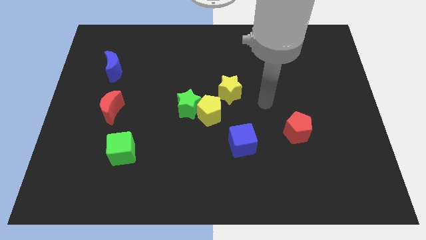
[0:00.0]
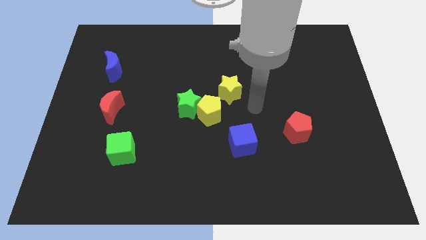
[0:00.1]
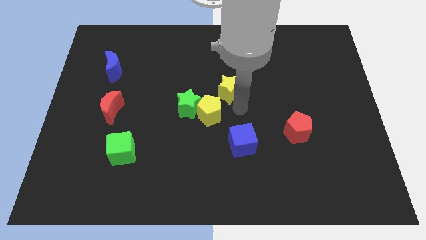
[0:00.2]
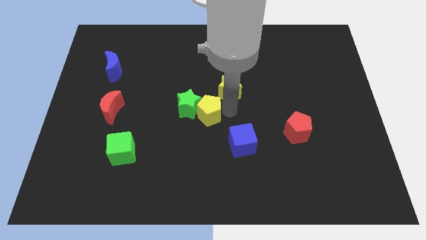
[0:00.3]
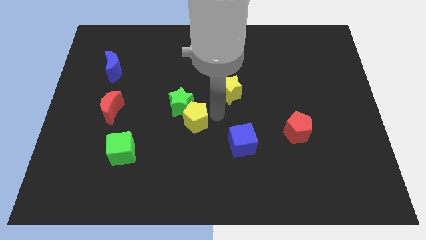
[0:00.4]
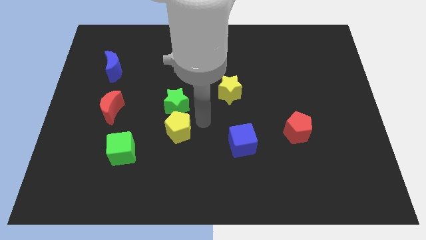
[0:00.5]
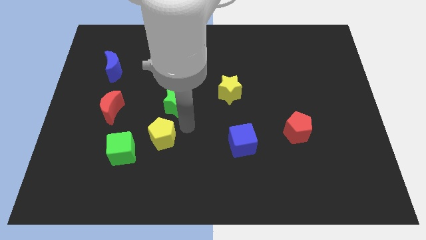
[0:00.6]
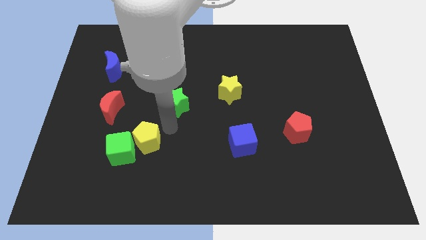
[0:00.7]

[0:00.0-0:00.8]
move the green star away from the yellow pentagon

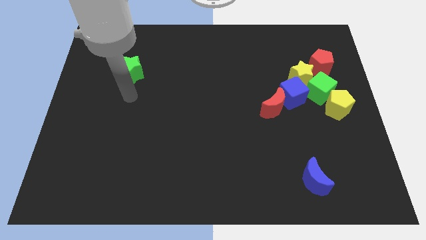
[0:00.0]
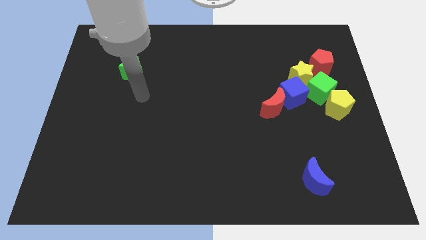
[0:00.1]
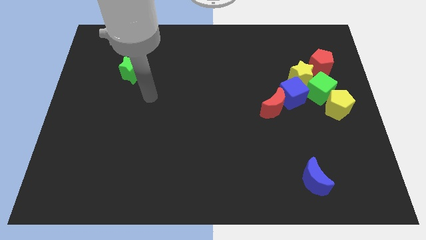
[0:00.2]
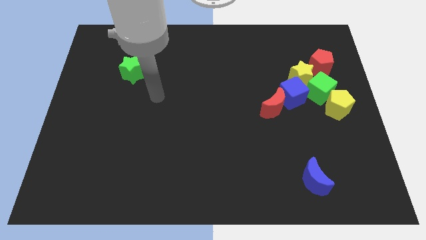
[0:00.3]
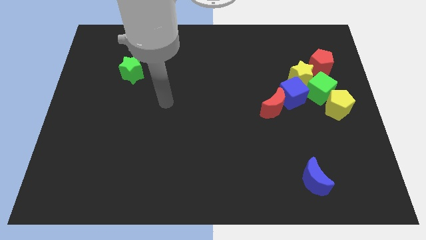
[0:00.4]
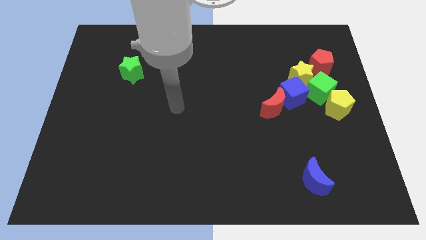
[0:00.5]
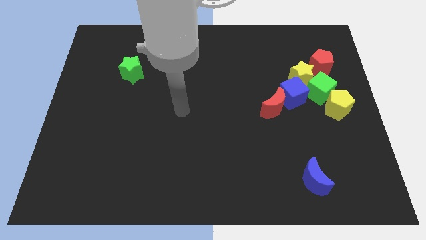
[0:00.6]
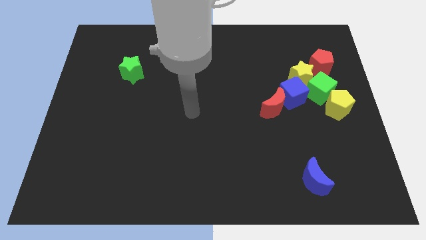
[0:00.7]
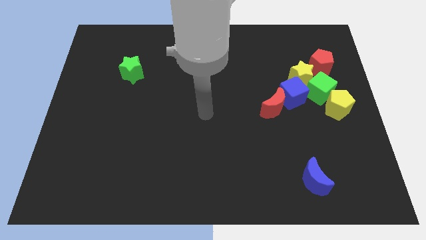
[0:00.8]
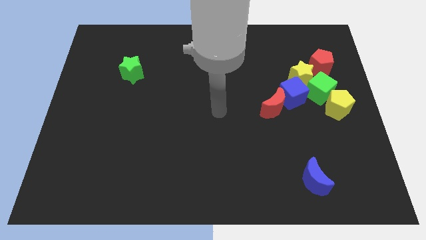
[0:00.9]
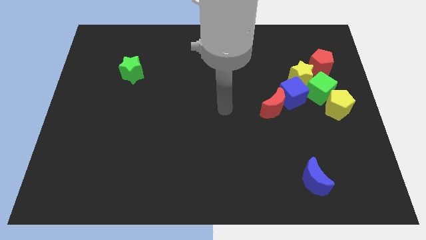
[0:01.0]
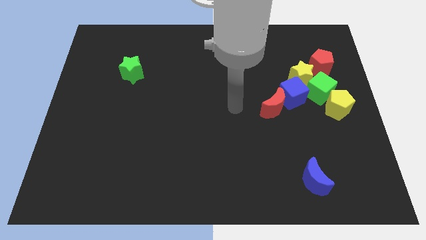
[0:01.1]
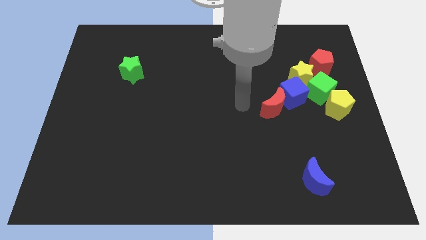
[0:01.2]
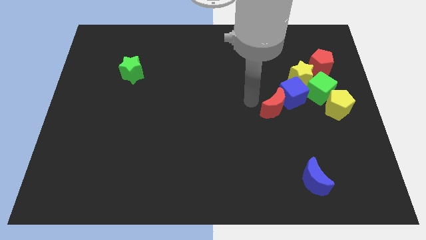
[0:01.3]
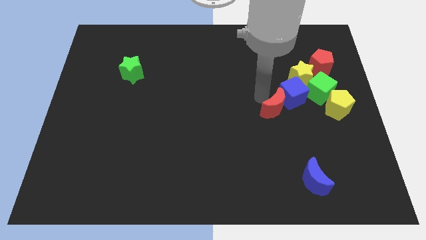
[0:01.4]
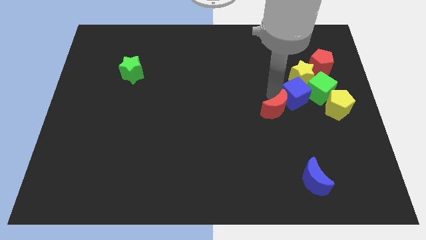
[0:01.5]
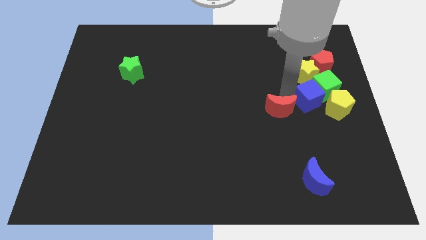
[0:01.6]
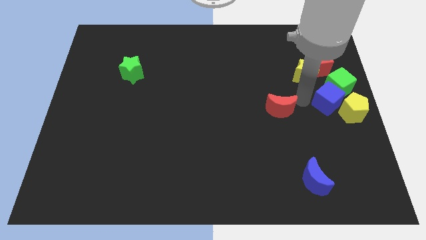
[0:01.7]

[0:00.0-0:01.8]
move the red moon away from the blue cube

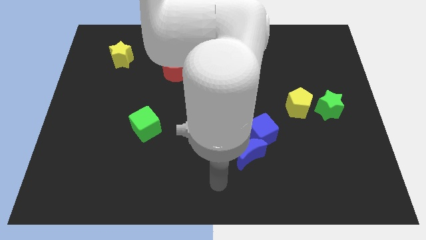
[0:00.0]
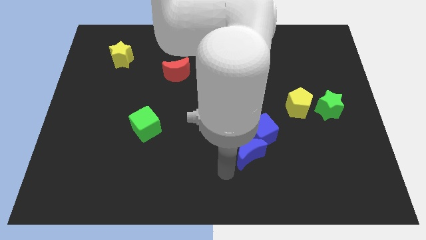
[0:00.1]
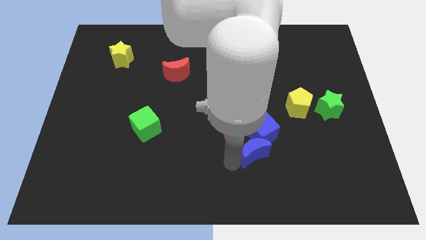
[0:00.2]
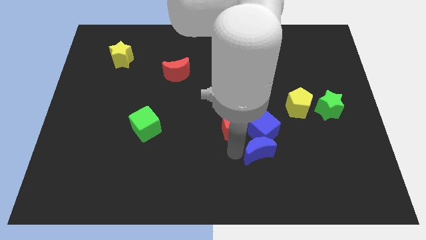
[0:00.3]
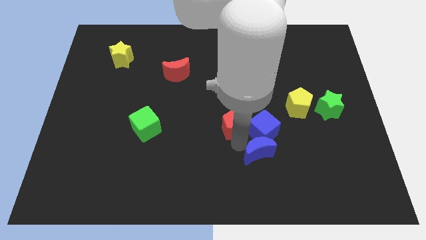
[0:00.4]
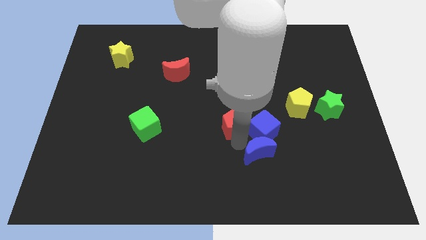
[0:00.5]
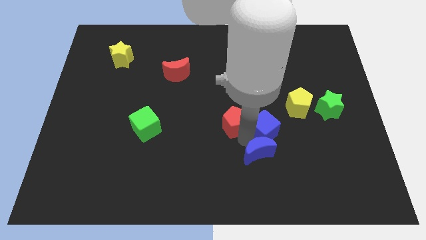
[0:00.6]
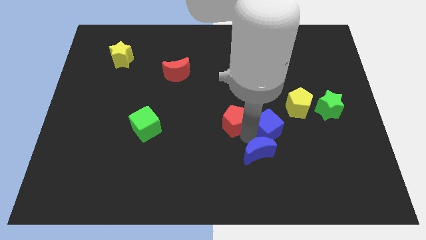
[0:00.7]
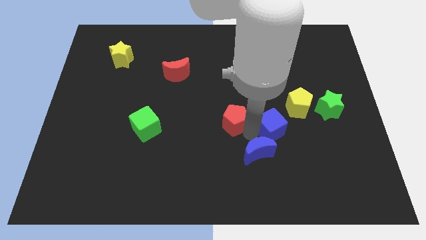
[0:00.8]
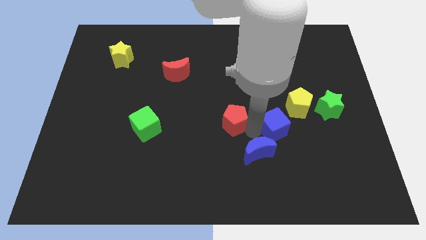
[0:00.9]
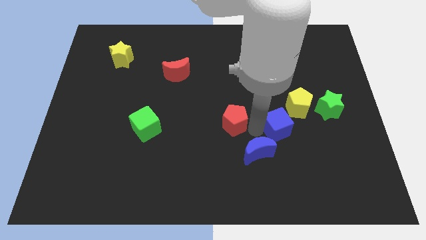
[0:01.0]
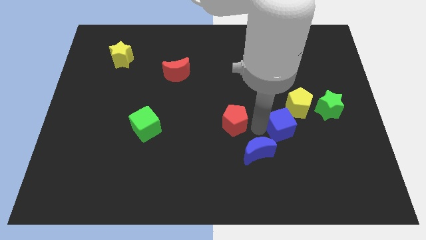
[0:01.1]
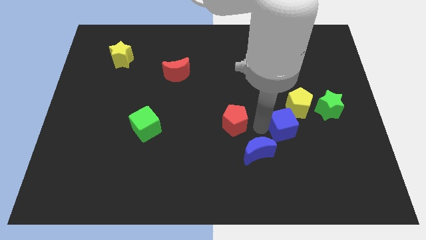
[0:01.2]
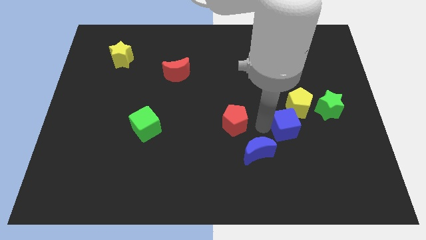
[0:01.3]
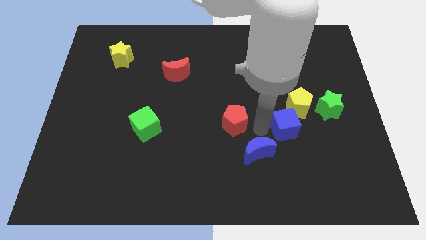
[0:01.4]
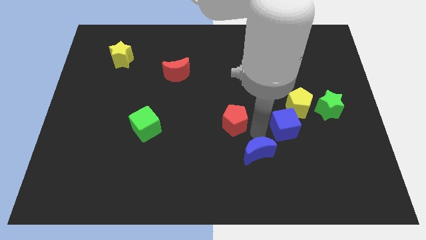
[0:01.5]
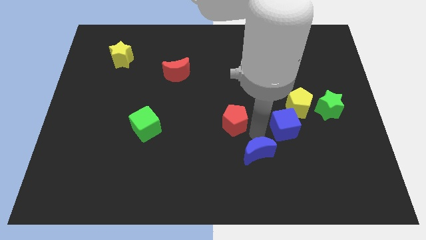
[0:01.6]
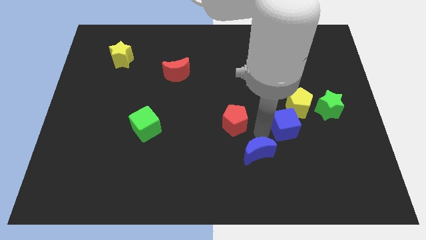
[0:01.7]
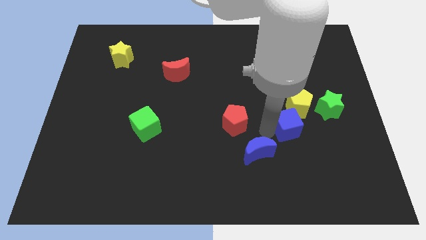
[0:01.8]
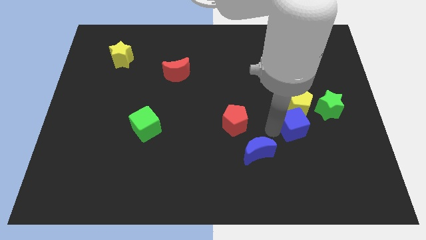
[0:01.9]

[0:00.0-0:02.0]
separate the blue cube from the red pentagon and blue moon

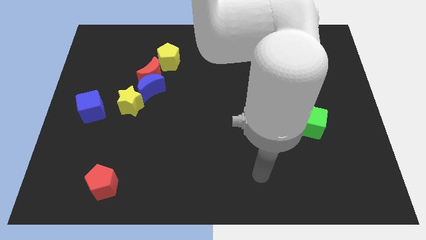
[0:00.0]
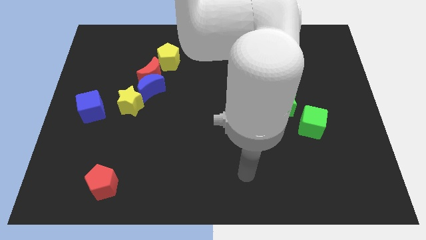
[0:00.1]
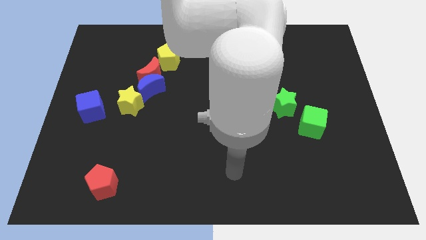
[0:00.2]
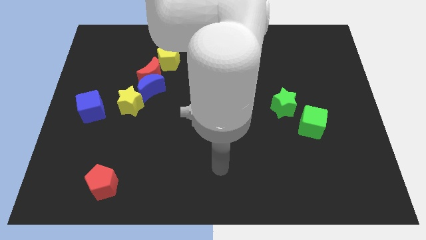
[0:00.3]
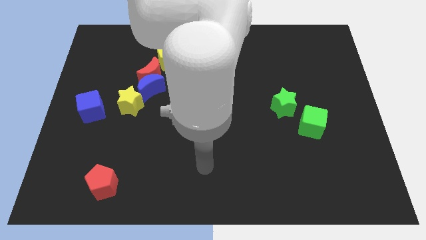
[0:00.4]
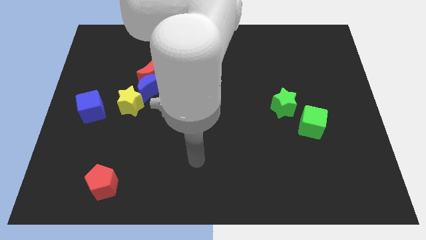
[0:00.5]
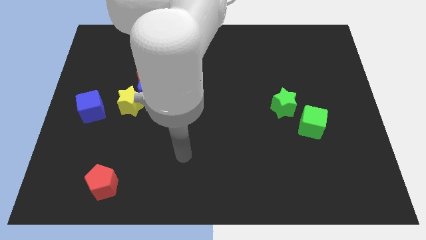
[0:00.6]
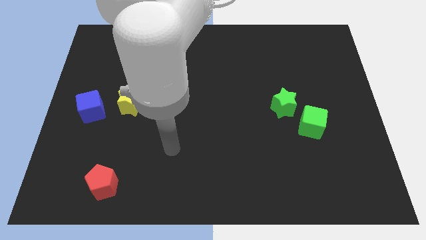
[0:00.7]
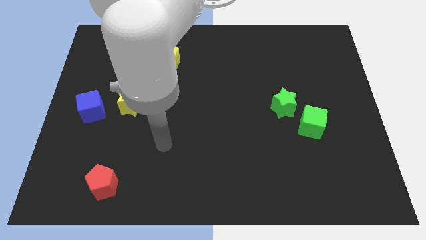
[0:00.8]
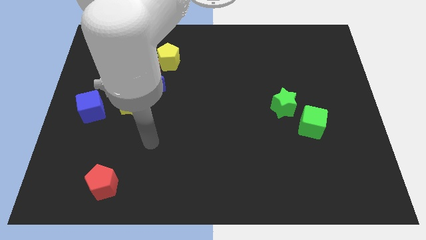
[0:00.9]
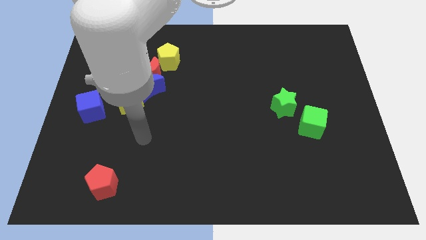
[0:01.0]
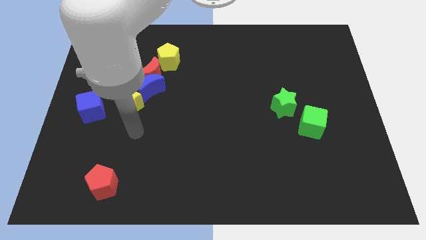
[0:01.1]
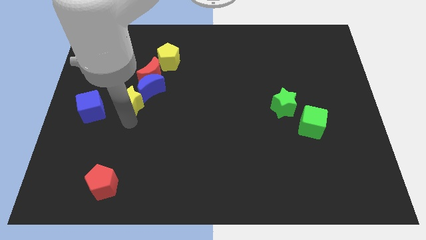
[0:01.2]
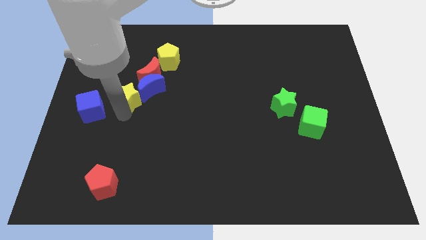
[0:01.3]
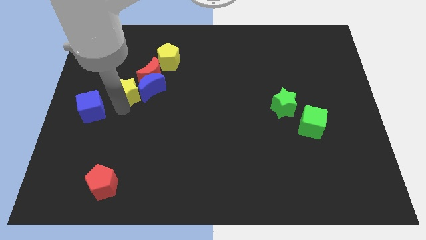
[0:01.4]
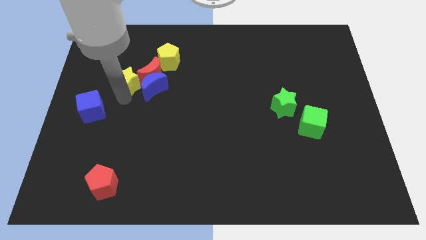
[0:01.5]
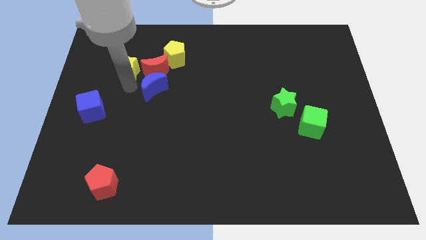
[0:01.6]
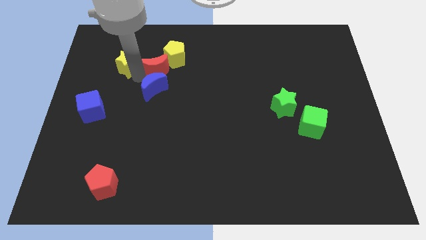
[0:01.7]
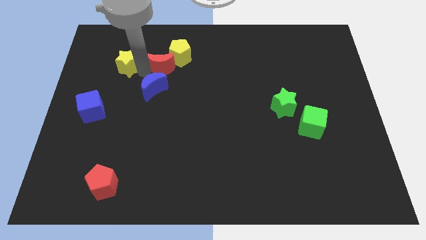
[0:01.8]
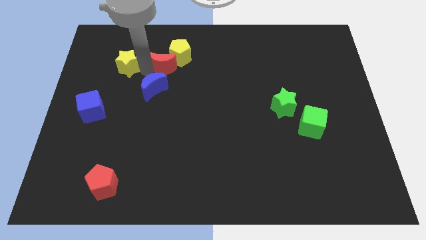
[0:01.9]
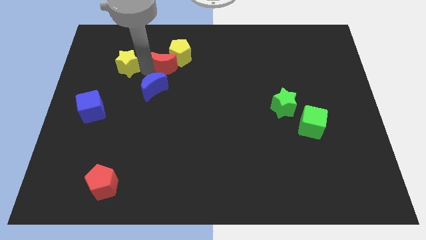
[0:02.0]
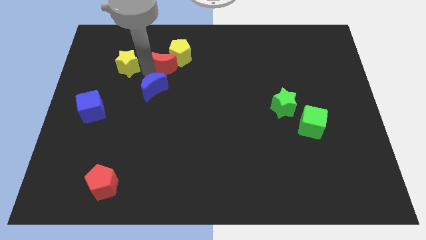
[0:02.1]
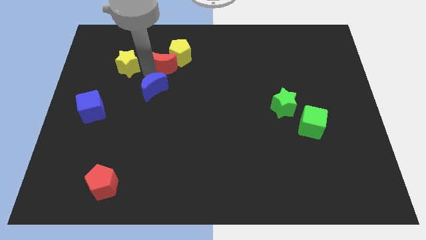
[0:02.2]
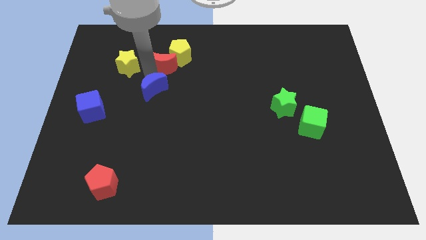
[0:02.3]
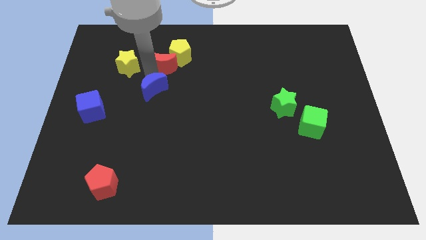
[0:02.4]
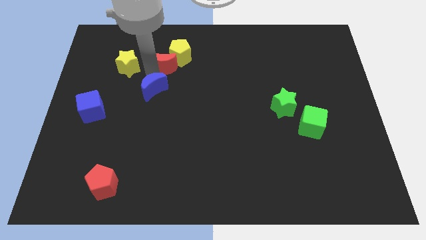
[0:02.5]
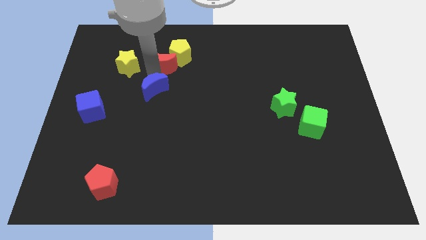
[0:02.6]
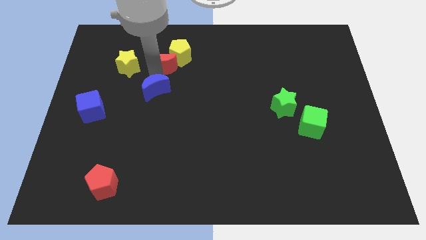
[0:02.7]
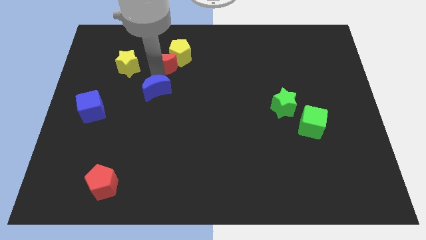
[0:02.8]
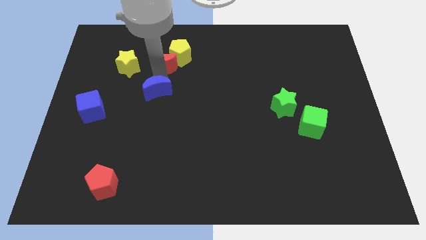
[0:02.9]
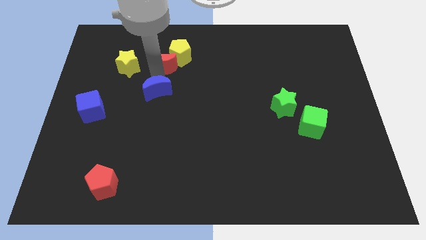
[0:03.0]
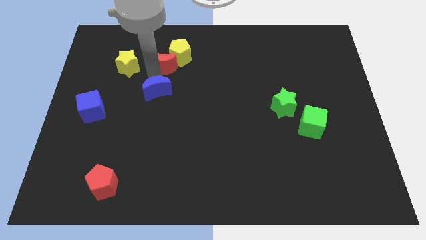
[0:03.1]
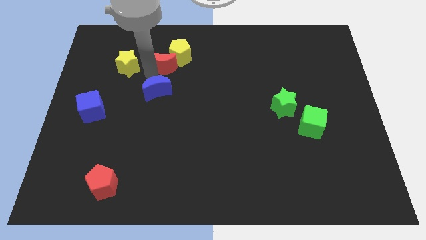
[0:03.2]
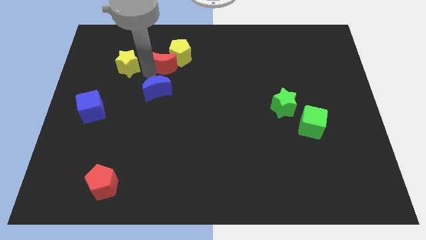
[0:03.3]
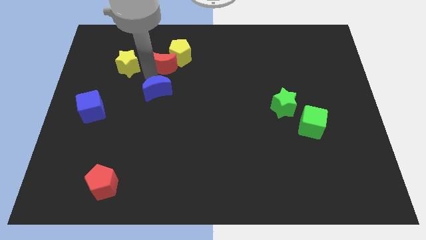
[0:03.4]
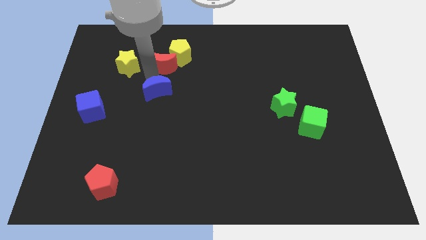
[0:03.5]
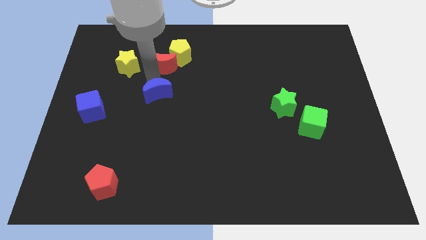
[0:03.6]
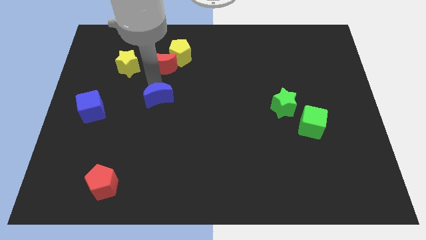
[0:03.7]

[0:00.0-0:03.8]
pull the blue moon apart from the red moon and yellow star

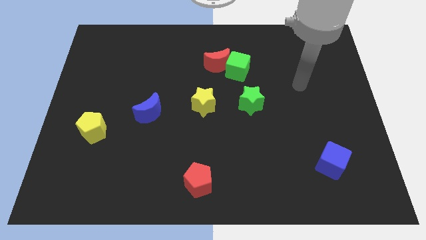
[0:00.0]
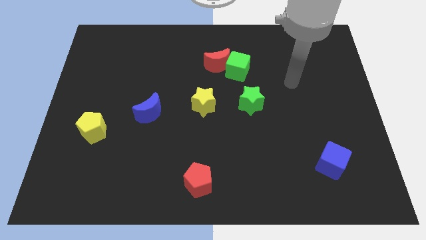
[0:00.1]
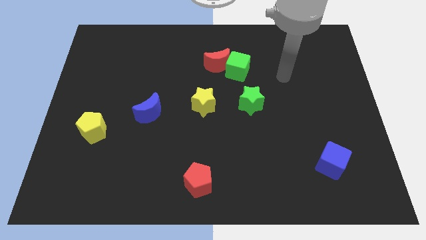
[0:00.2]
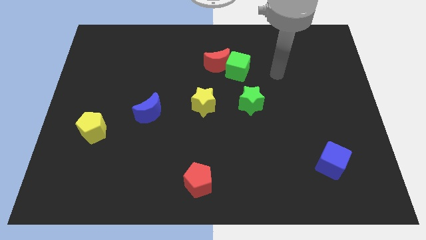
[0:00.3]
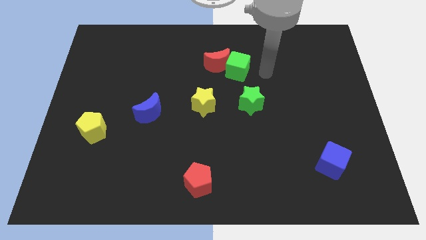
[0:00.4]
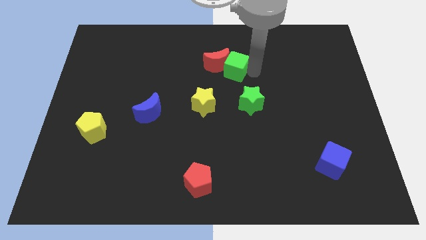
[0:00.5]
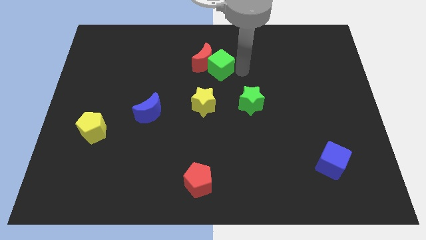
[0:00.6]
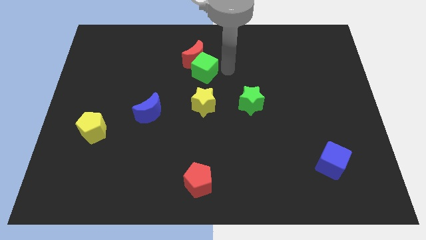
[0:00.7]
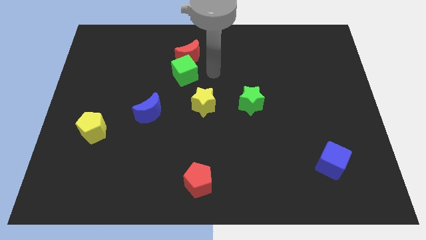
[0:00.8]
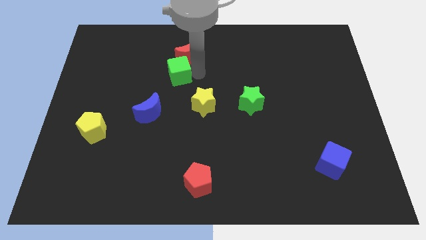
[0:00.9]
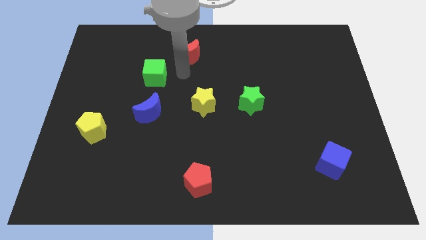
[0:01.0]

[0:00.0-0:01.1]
move the red moon away from the green cube

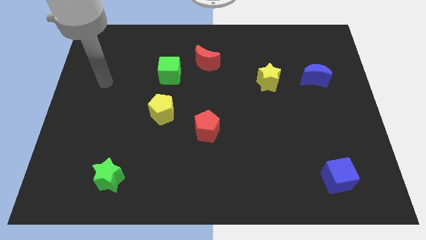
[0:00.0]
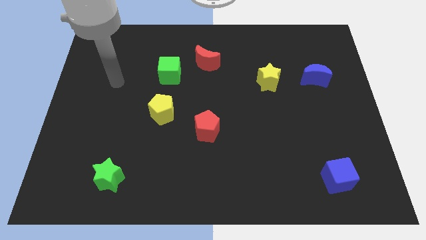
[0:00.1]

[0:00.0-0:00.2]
pull the red moon apart from the green cube
